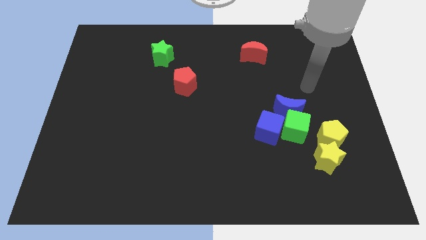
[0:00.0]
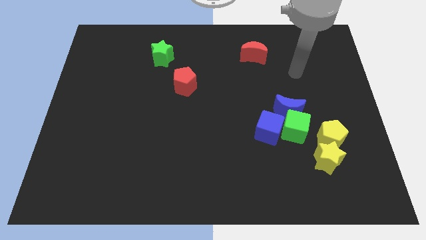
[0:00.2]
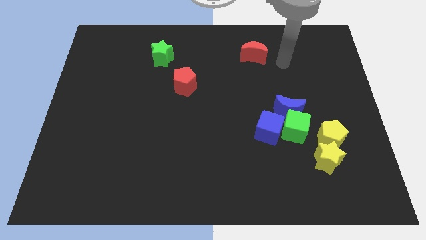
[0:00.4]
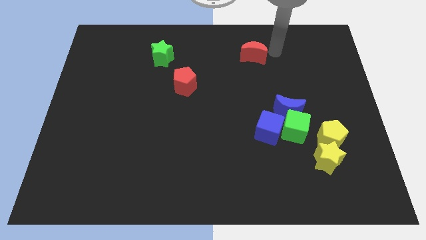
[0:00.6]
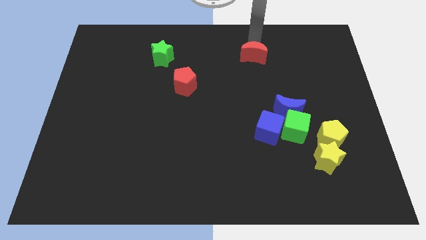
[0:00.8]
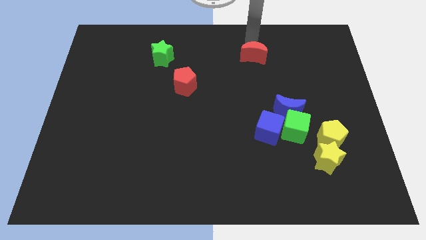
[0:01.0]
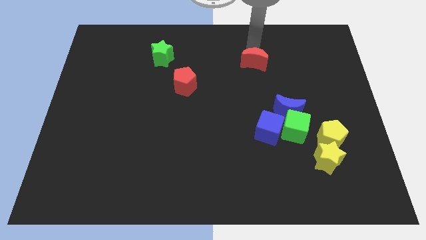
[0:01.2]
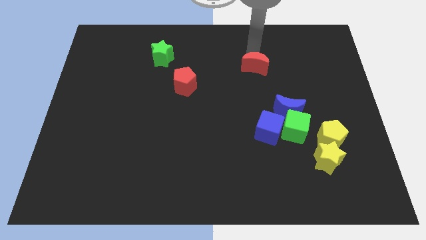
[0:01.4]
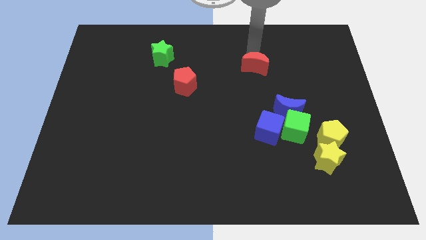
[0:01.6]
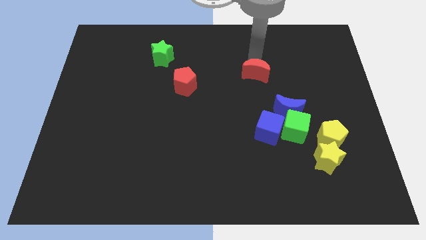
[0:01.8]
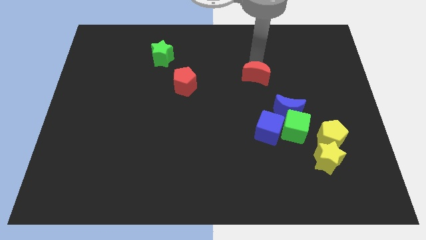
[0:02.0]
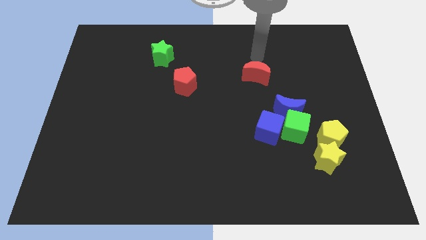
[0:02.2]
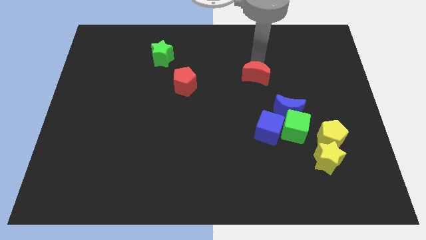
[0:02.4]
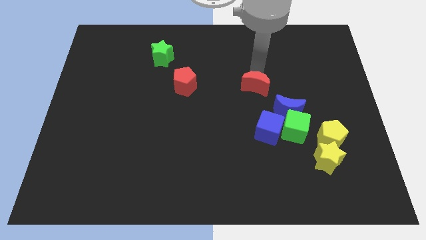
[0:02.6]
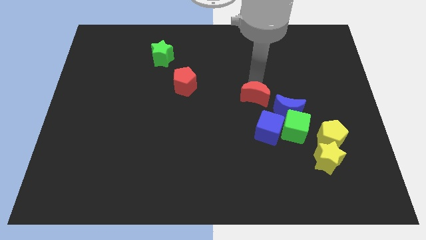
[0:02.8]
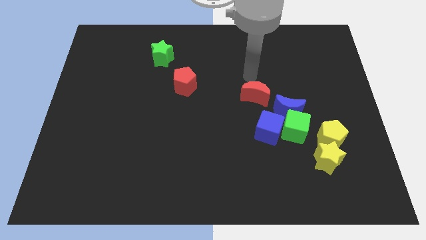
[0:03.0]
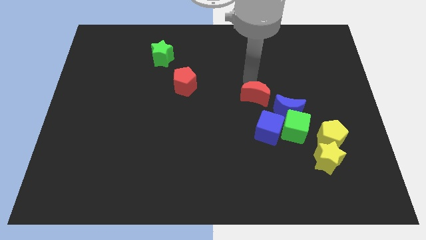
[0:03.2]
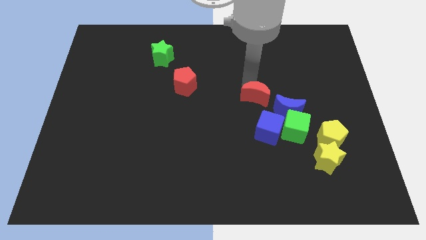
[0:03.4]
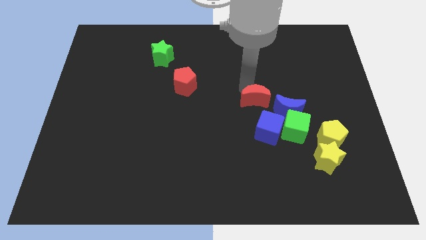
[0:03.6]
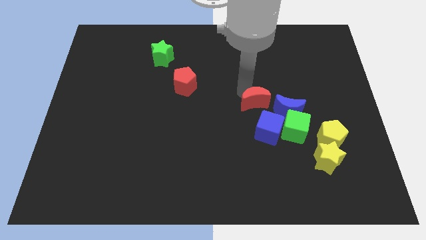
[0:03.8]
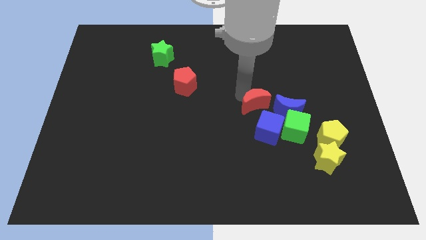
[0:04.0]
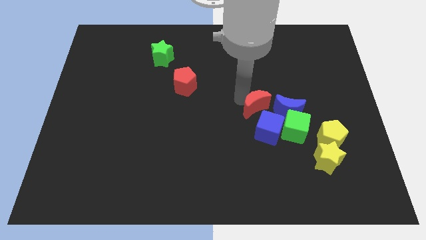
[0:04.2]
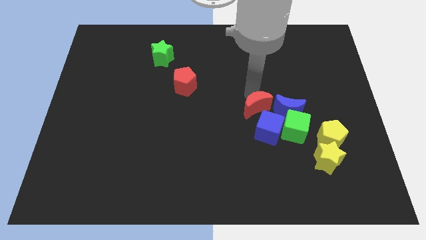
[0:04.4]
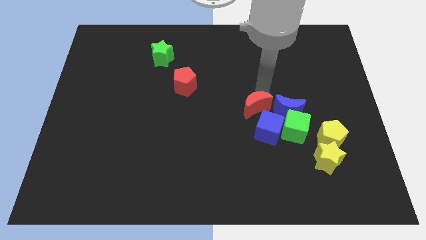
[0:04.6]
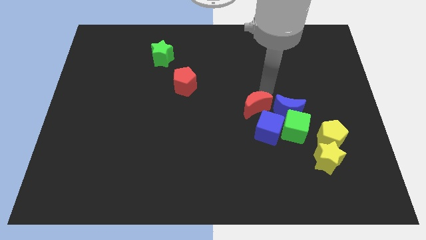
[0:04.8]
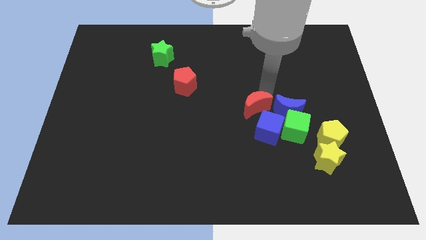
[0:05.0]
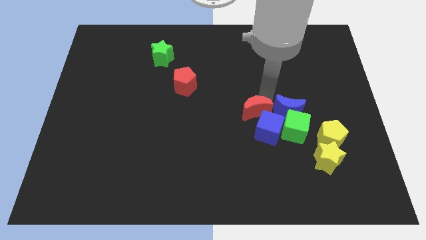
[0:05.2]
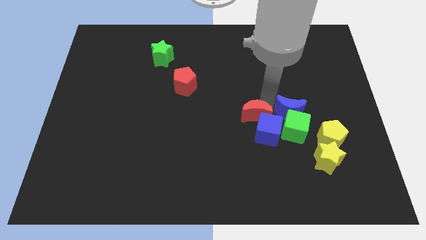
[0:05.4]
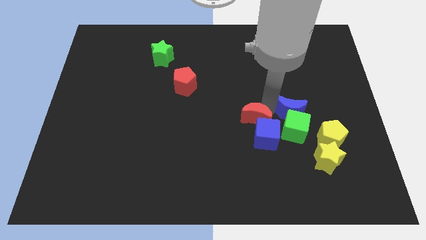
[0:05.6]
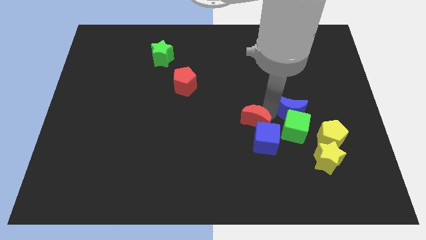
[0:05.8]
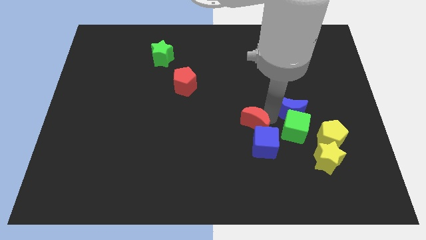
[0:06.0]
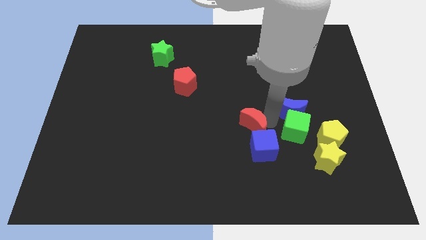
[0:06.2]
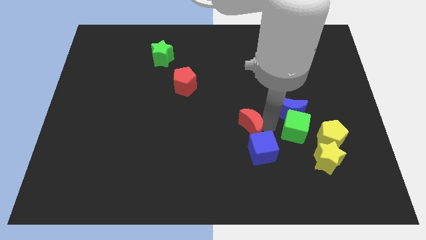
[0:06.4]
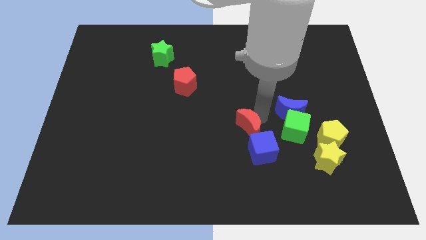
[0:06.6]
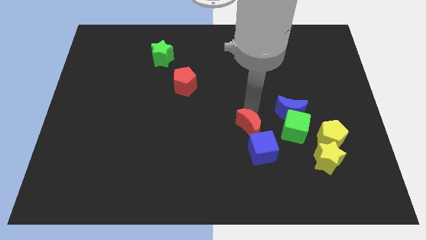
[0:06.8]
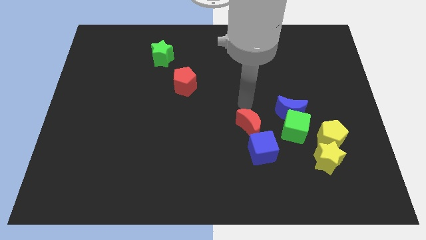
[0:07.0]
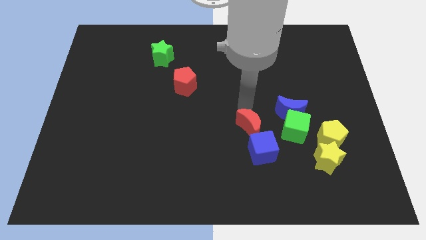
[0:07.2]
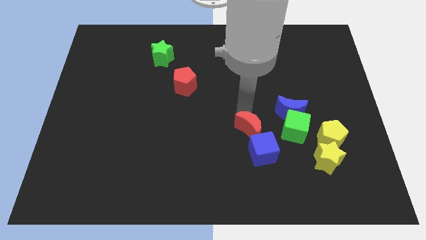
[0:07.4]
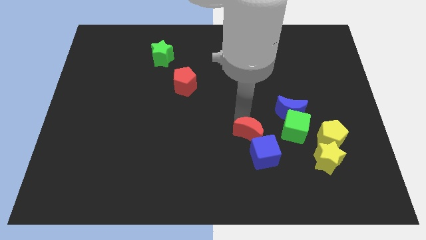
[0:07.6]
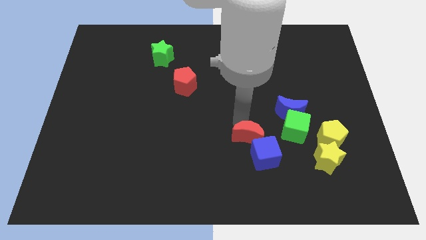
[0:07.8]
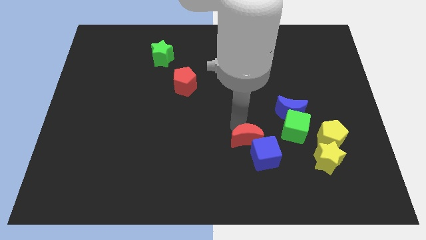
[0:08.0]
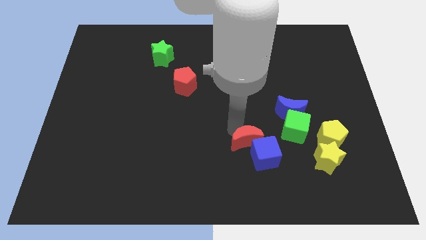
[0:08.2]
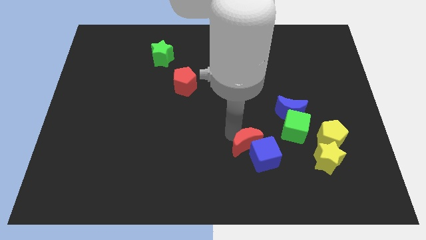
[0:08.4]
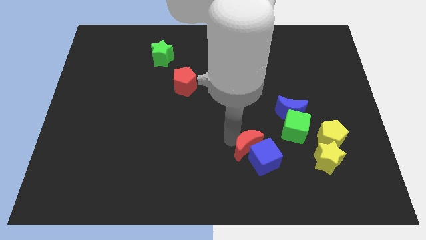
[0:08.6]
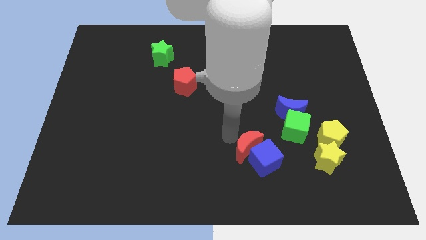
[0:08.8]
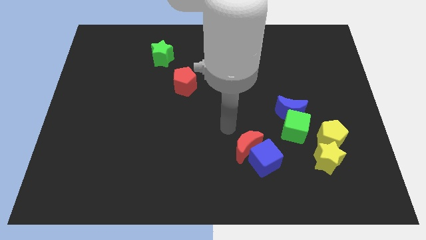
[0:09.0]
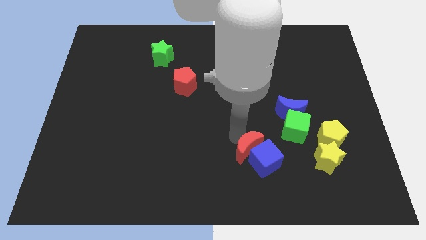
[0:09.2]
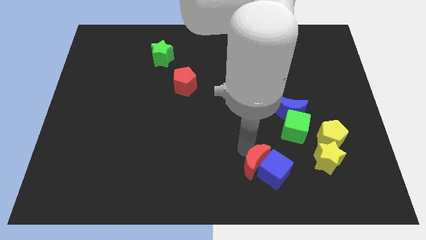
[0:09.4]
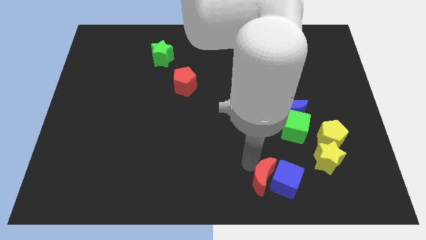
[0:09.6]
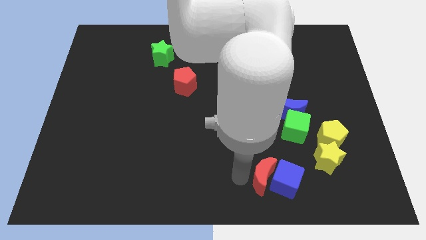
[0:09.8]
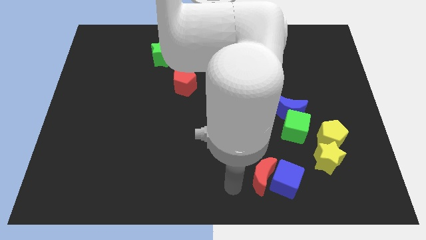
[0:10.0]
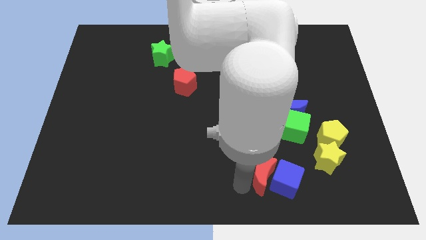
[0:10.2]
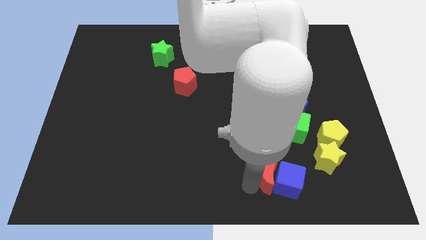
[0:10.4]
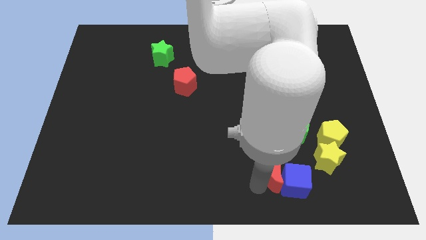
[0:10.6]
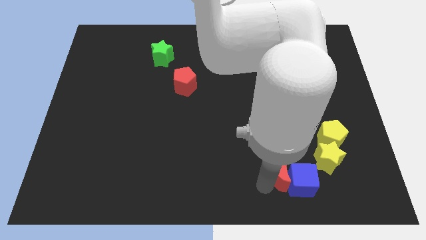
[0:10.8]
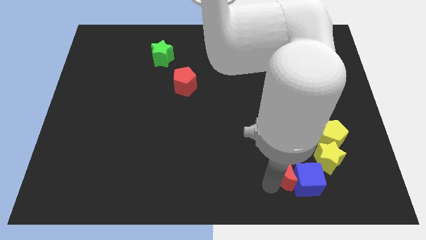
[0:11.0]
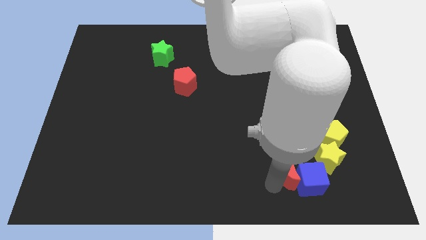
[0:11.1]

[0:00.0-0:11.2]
slide the red moon to the bottom side of the blue moon
